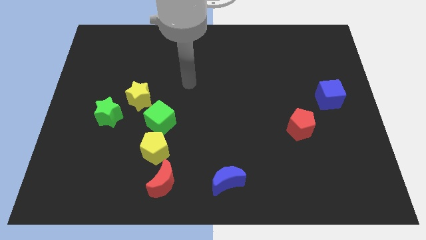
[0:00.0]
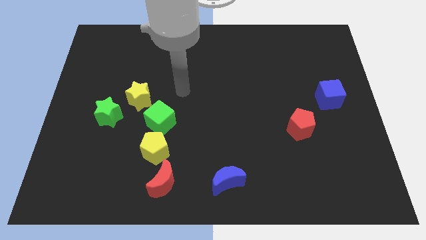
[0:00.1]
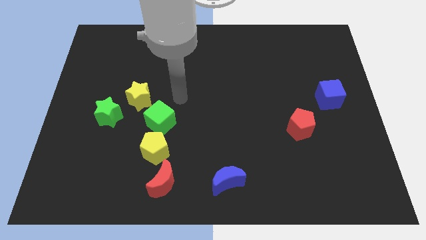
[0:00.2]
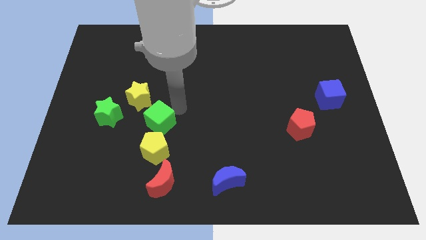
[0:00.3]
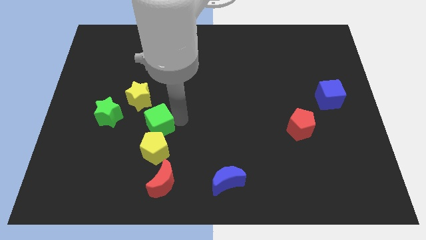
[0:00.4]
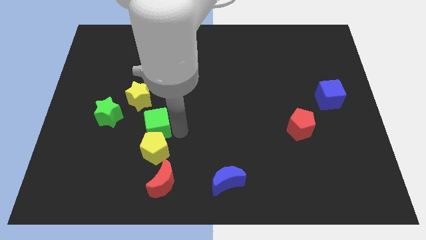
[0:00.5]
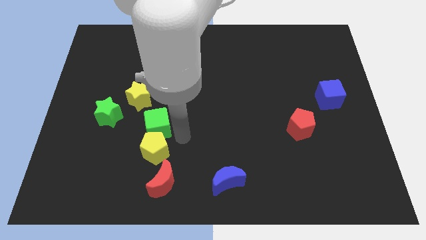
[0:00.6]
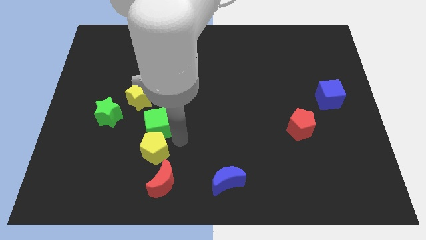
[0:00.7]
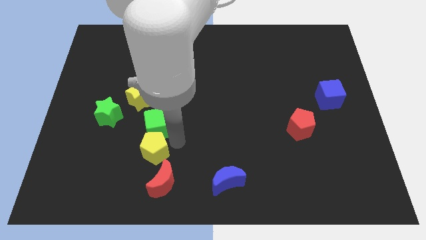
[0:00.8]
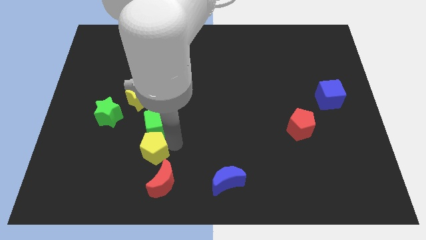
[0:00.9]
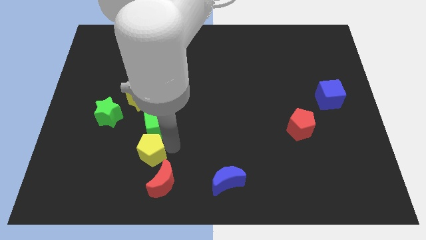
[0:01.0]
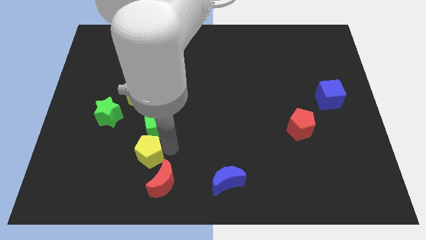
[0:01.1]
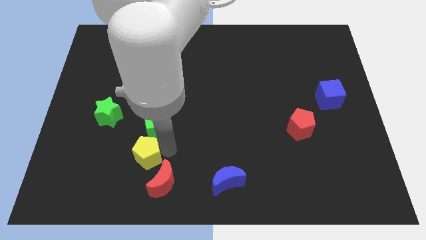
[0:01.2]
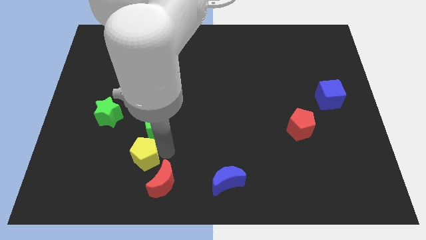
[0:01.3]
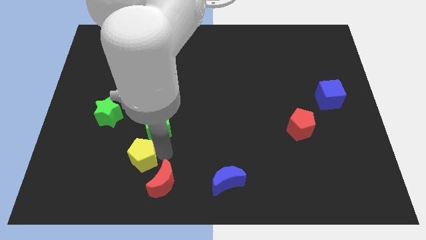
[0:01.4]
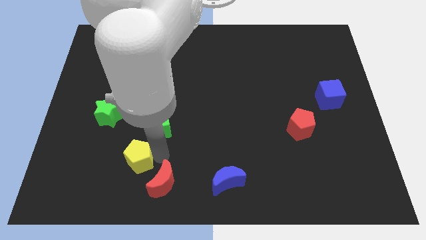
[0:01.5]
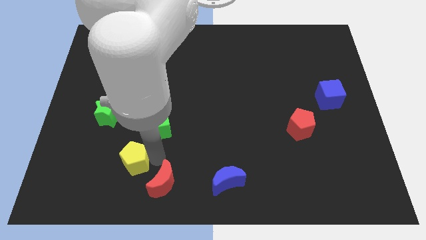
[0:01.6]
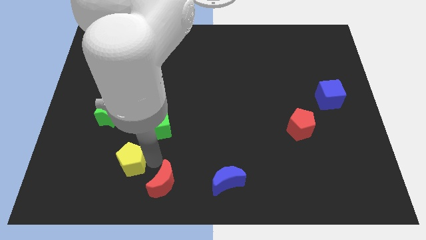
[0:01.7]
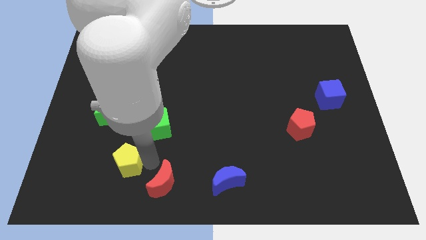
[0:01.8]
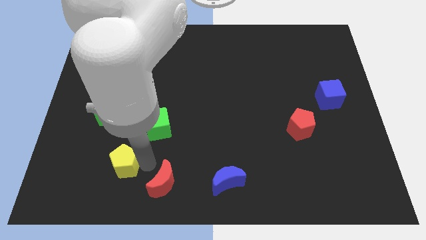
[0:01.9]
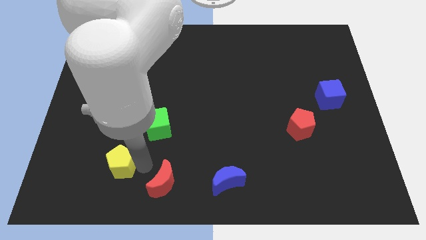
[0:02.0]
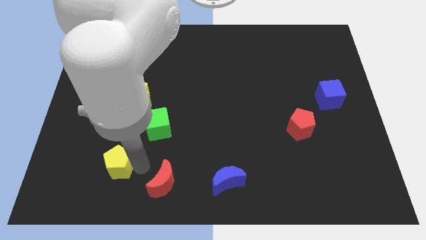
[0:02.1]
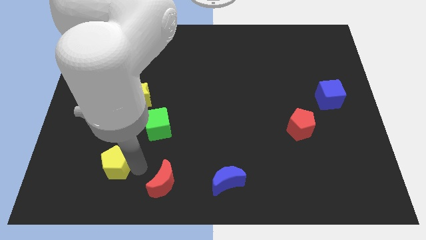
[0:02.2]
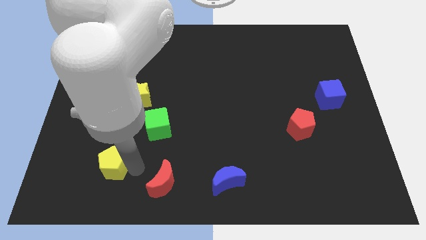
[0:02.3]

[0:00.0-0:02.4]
move the yellow pentagon away from the green cube and red moon

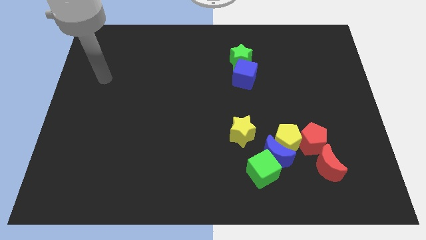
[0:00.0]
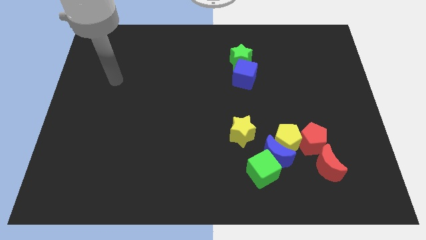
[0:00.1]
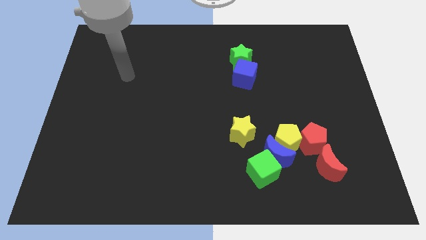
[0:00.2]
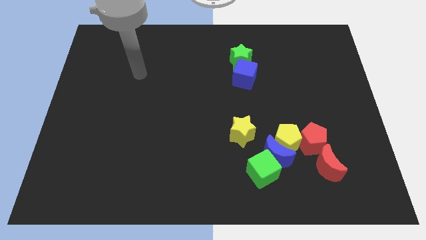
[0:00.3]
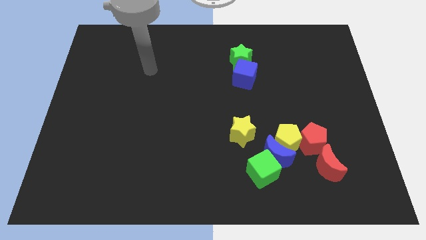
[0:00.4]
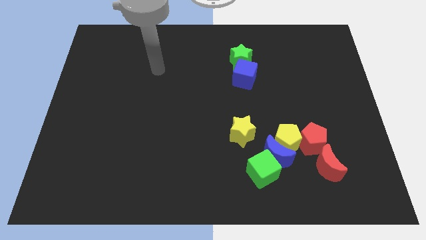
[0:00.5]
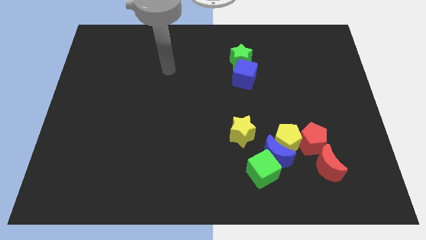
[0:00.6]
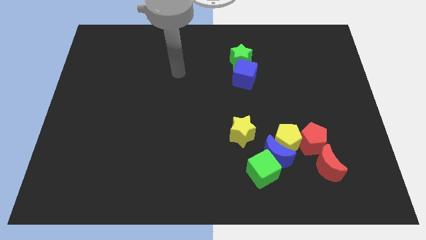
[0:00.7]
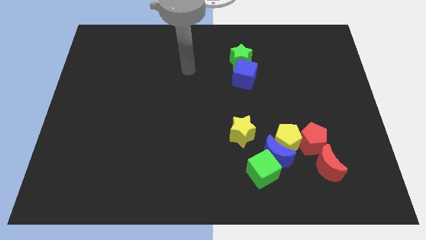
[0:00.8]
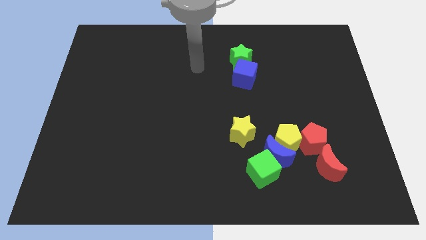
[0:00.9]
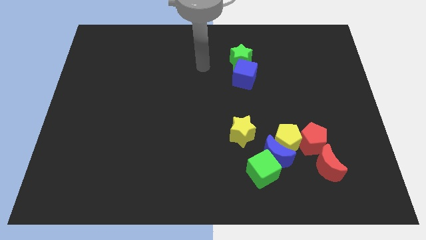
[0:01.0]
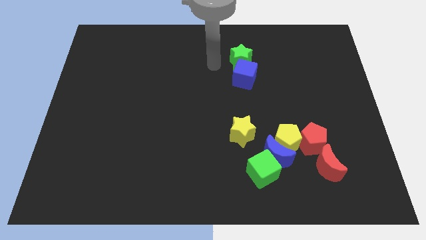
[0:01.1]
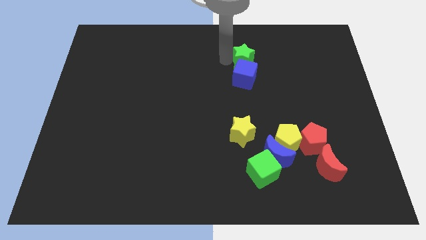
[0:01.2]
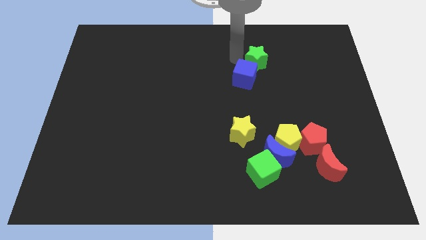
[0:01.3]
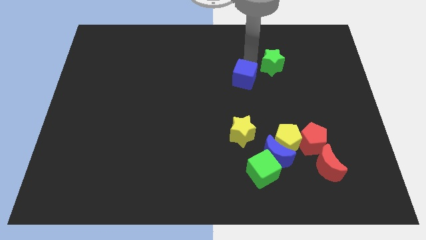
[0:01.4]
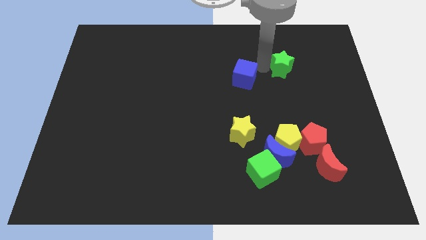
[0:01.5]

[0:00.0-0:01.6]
separate the blue cube from the green star

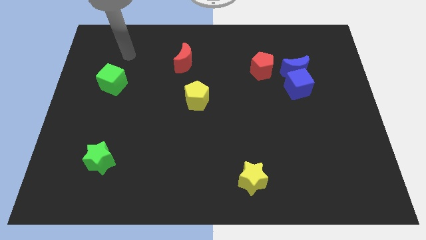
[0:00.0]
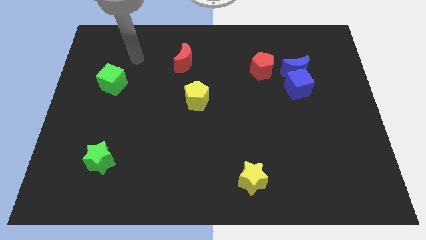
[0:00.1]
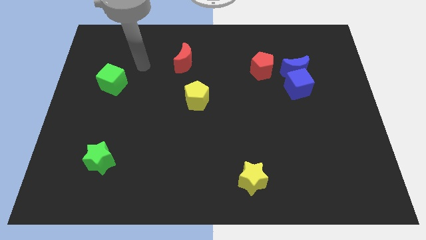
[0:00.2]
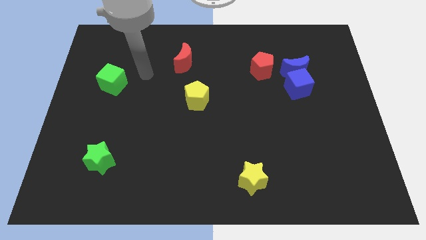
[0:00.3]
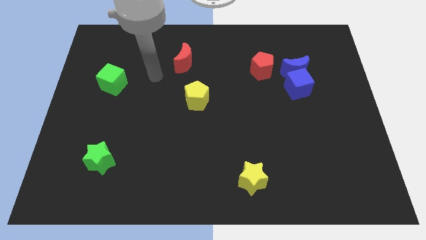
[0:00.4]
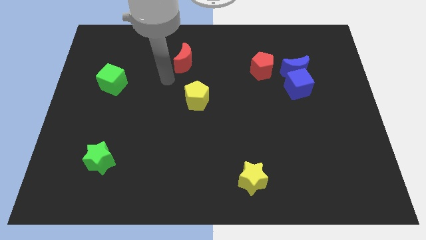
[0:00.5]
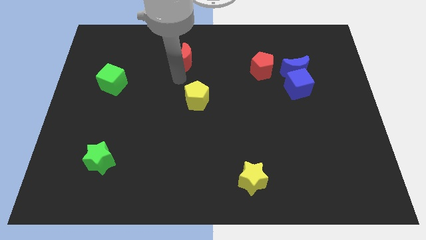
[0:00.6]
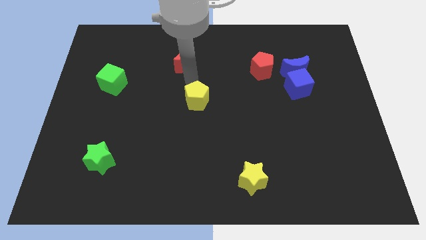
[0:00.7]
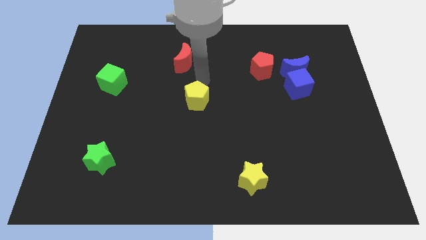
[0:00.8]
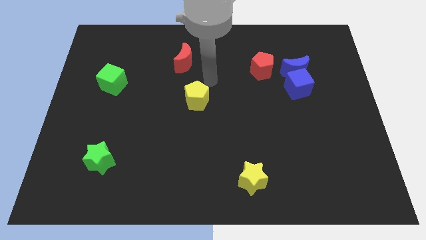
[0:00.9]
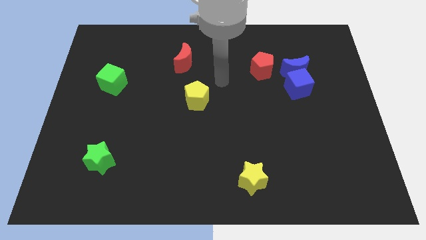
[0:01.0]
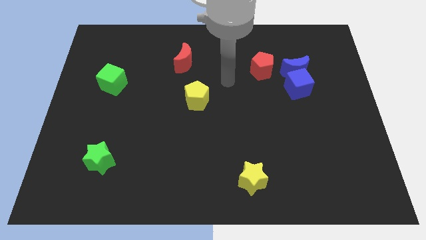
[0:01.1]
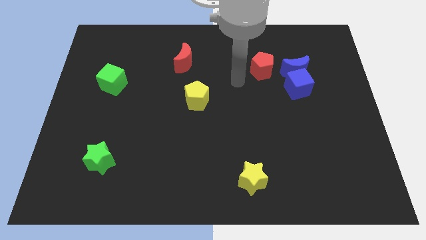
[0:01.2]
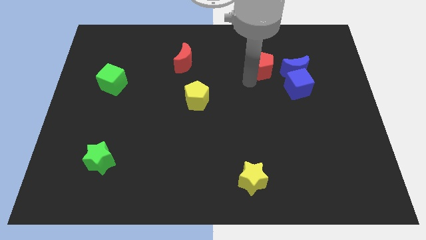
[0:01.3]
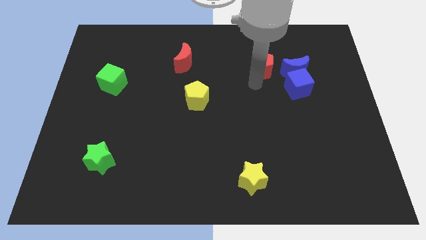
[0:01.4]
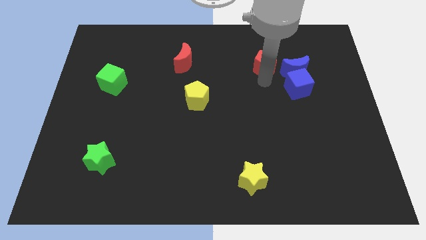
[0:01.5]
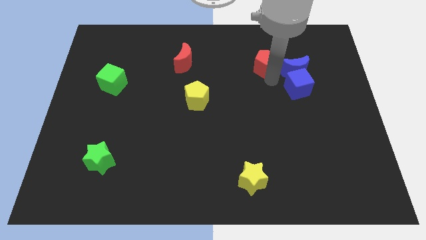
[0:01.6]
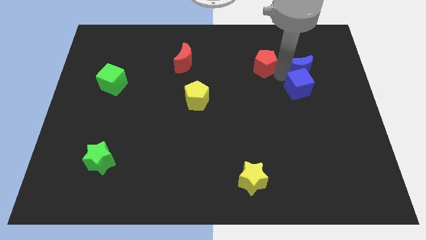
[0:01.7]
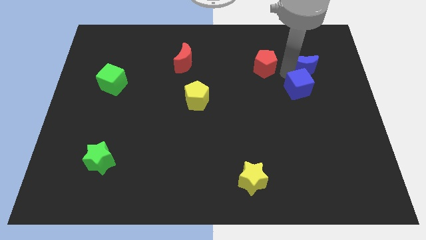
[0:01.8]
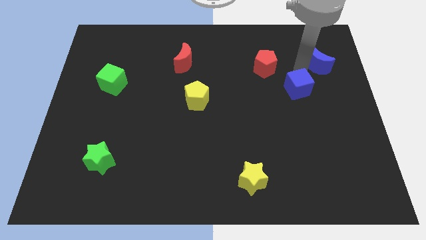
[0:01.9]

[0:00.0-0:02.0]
separate the blue cube from the blue moon

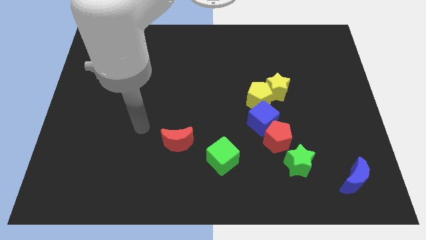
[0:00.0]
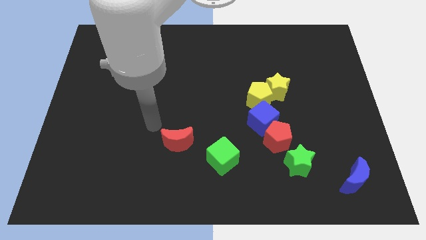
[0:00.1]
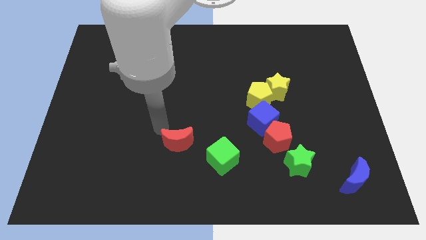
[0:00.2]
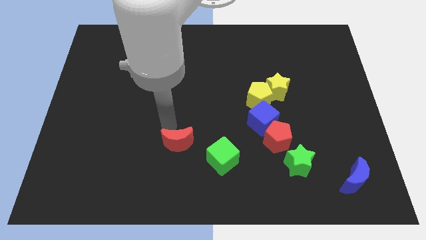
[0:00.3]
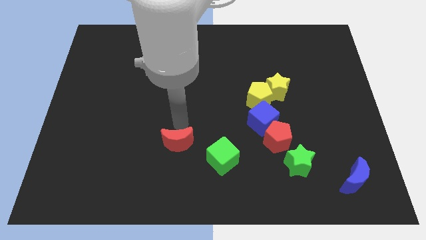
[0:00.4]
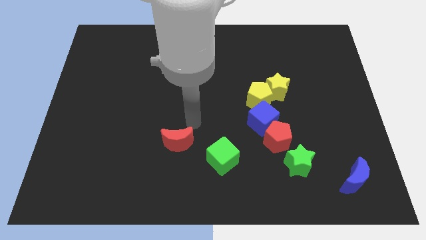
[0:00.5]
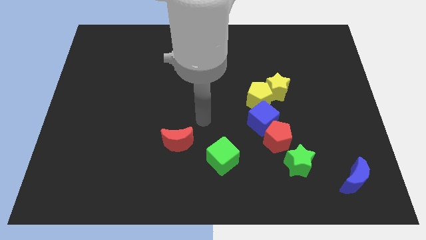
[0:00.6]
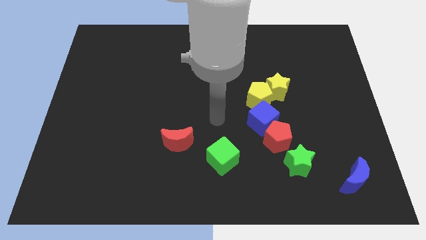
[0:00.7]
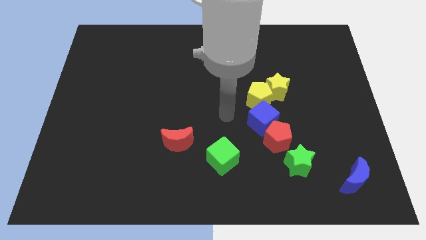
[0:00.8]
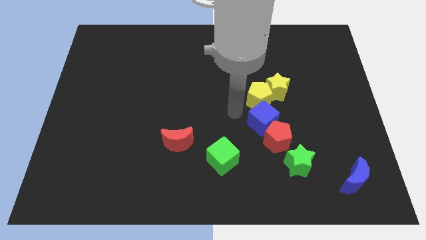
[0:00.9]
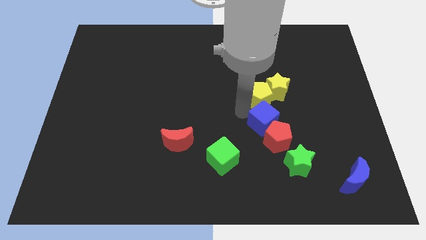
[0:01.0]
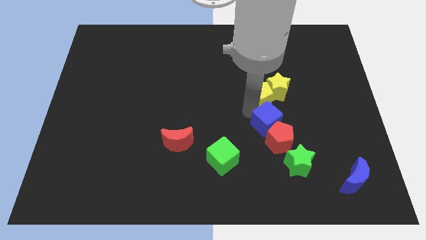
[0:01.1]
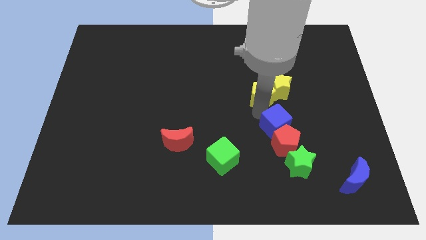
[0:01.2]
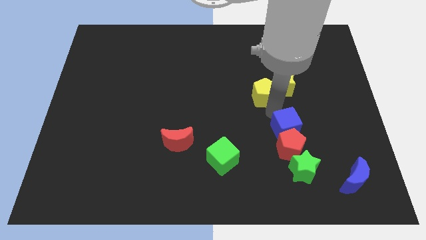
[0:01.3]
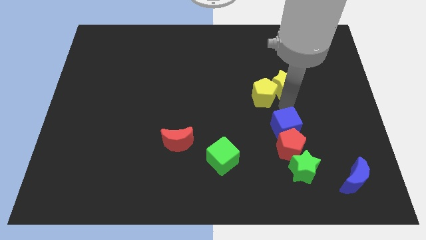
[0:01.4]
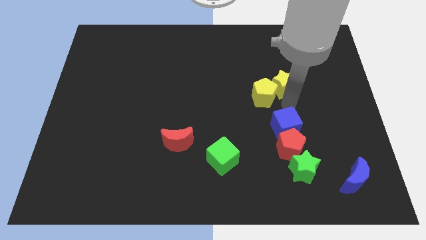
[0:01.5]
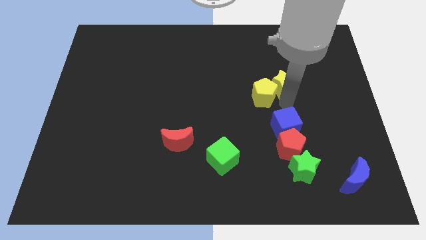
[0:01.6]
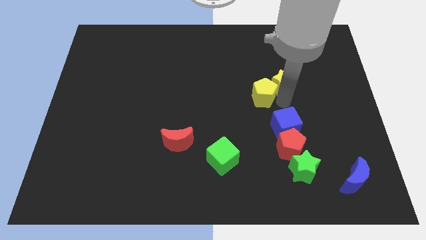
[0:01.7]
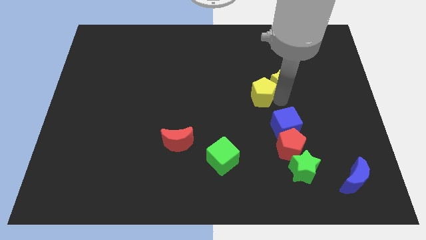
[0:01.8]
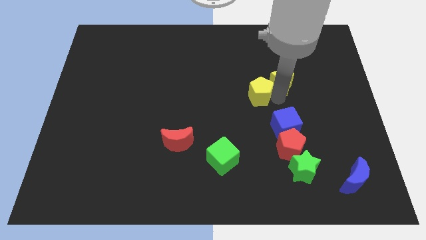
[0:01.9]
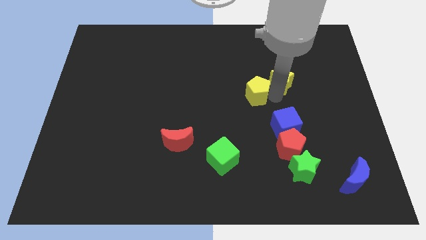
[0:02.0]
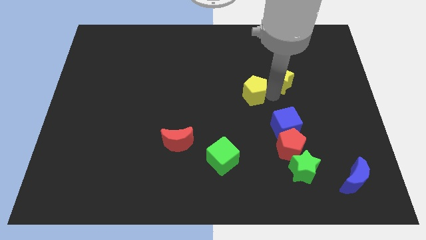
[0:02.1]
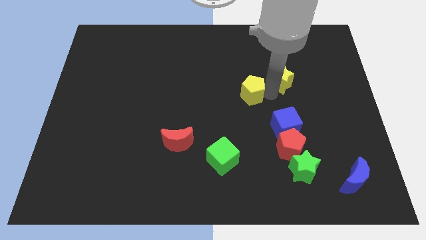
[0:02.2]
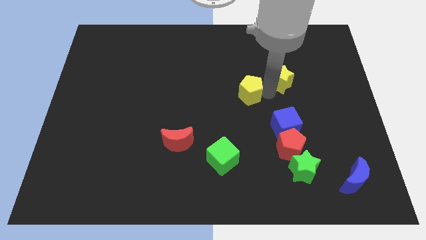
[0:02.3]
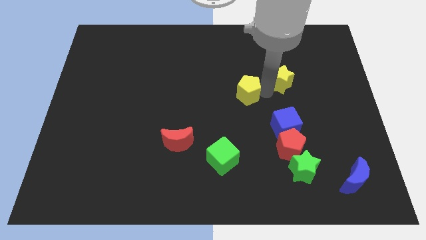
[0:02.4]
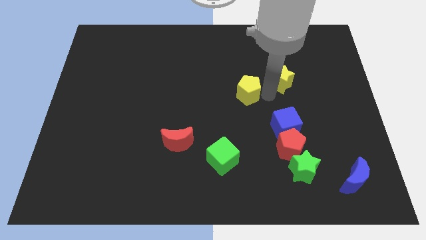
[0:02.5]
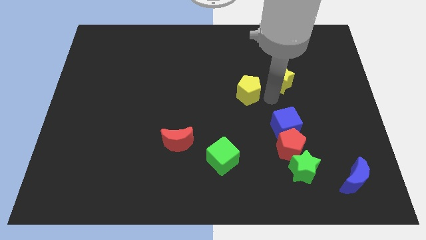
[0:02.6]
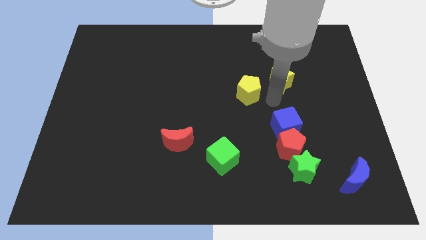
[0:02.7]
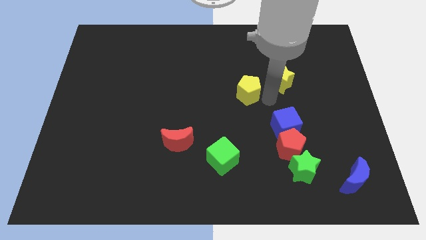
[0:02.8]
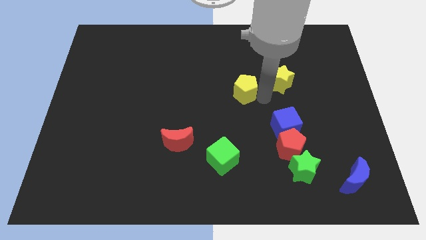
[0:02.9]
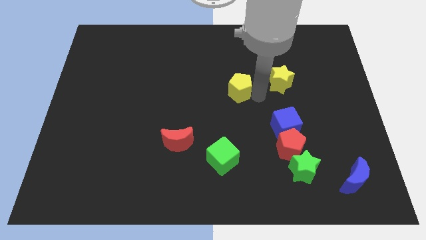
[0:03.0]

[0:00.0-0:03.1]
move the yellow pentagon away from the yellow star and blue cube

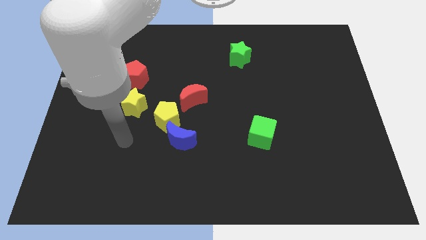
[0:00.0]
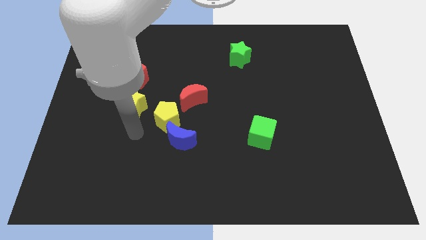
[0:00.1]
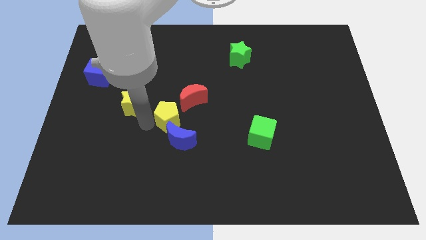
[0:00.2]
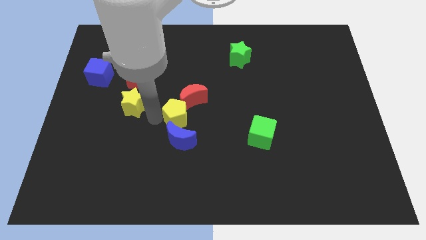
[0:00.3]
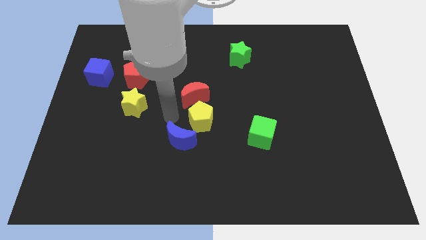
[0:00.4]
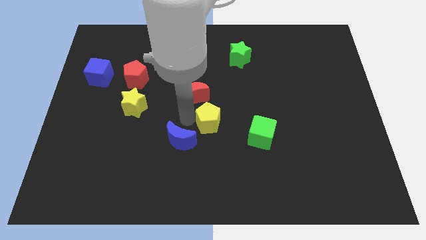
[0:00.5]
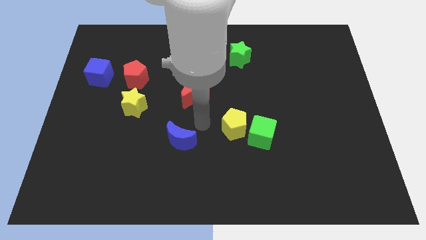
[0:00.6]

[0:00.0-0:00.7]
pull the blue moon apart from the yellow pentagon
